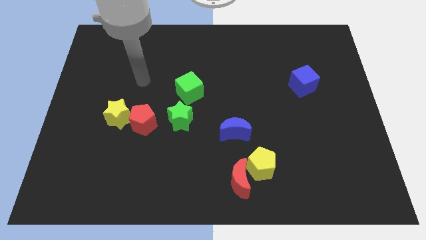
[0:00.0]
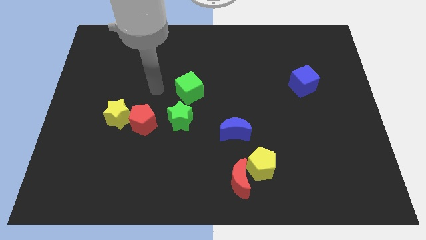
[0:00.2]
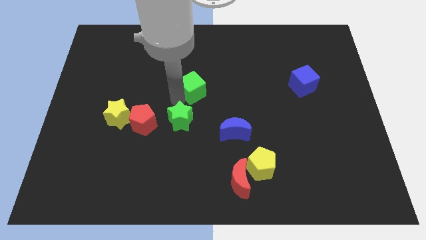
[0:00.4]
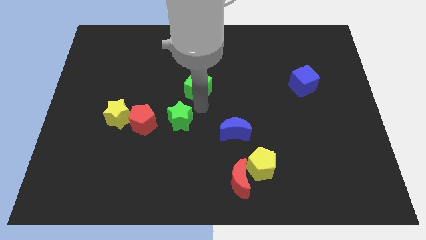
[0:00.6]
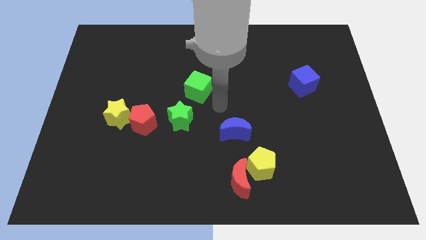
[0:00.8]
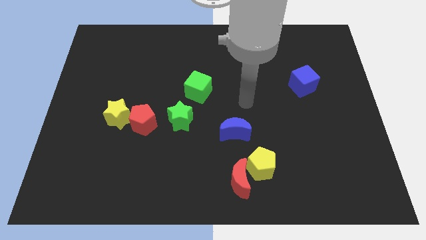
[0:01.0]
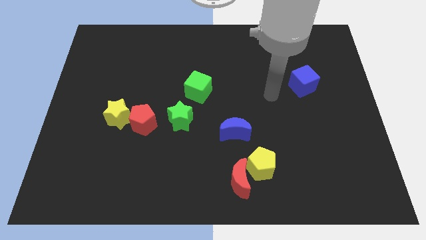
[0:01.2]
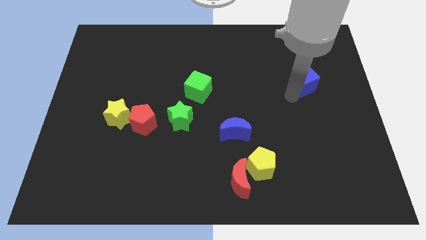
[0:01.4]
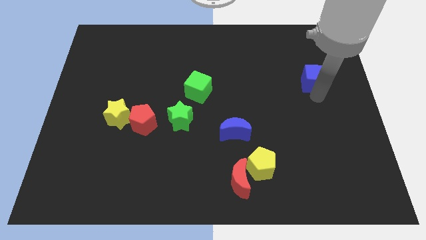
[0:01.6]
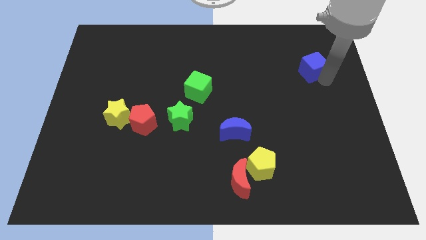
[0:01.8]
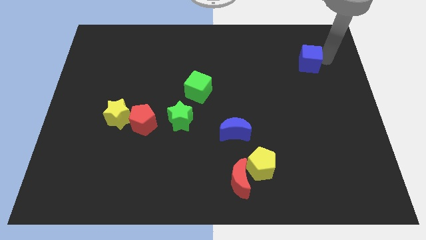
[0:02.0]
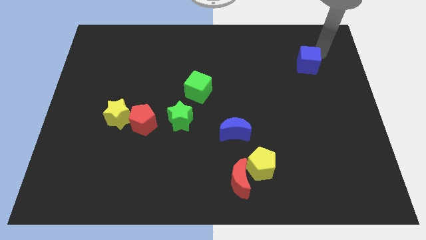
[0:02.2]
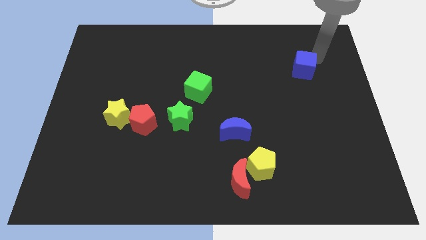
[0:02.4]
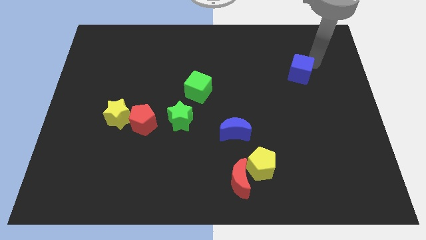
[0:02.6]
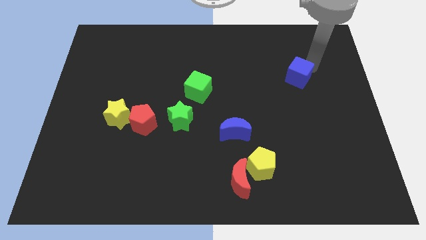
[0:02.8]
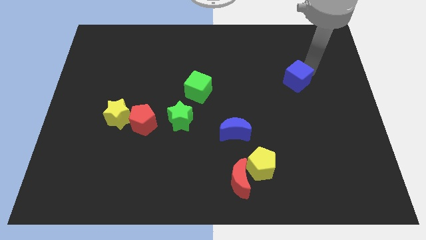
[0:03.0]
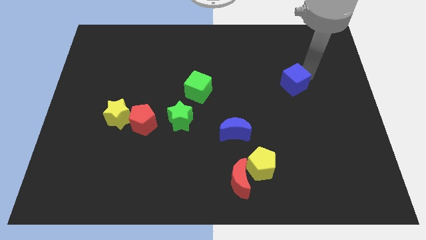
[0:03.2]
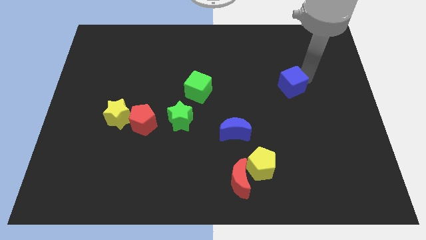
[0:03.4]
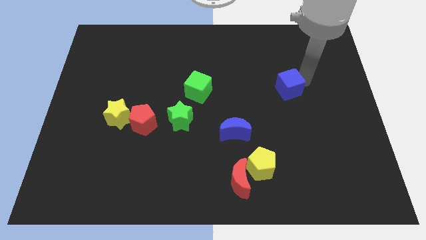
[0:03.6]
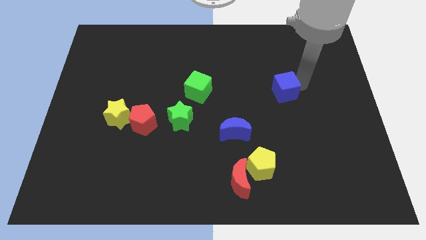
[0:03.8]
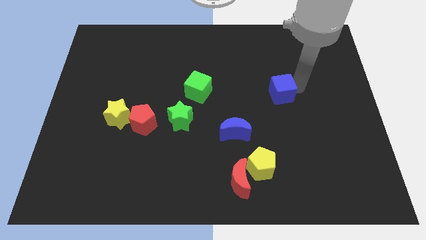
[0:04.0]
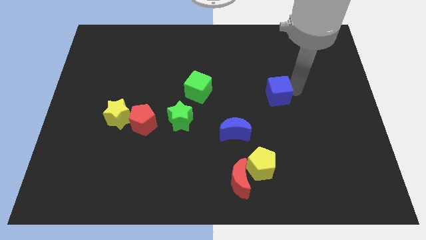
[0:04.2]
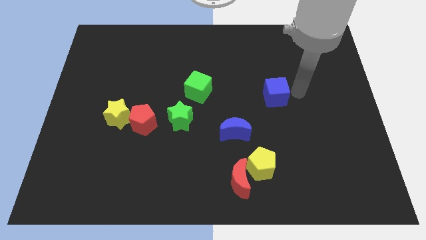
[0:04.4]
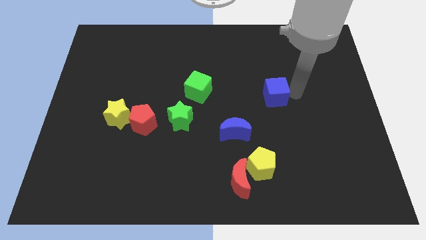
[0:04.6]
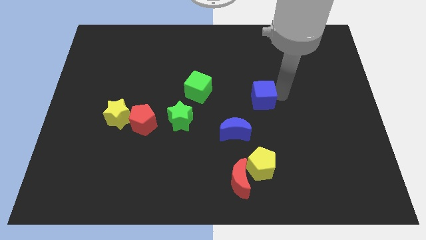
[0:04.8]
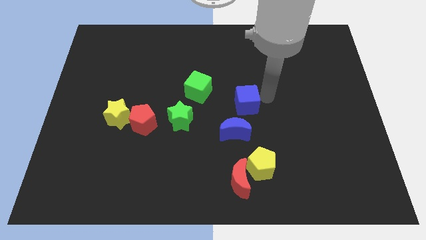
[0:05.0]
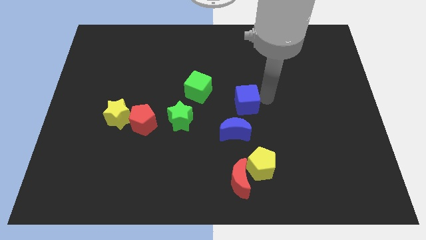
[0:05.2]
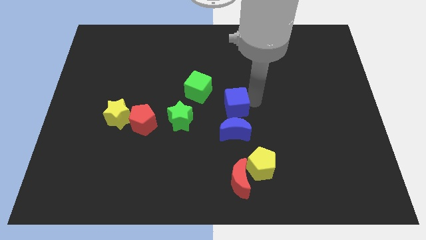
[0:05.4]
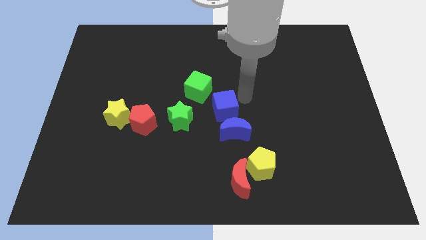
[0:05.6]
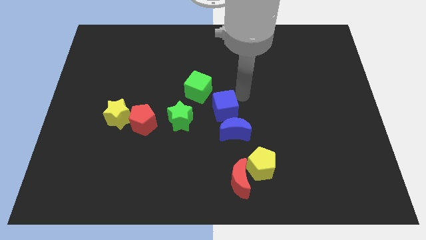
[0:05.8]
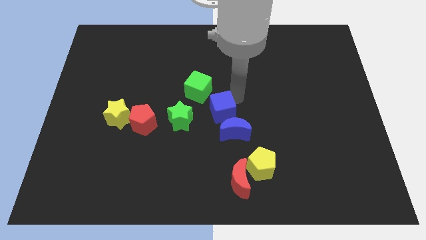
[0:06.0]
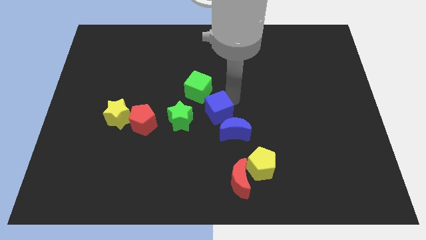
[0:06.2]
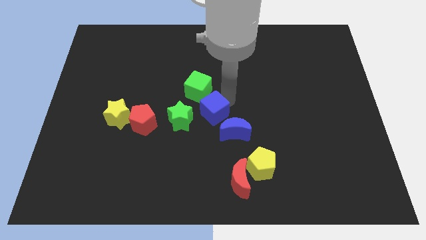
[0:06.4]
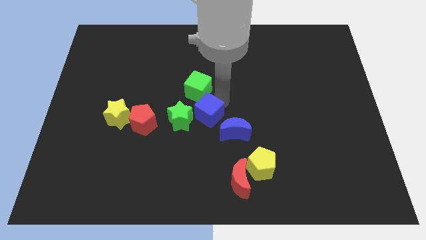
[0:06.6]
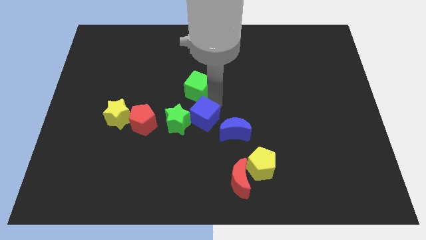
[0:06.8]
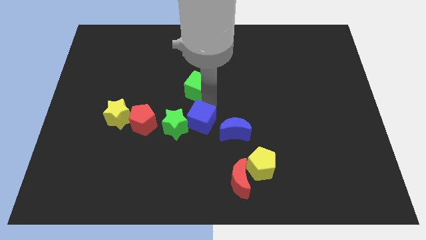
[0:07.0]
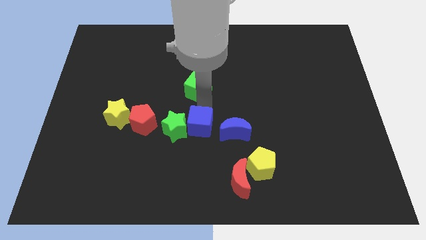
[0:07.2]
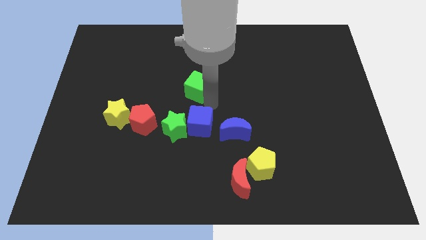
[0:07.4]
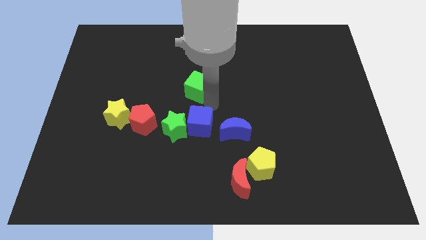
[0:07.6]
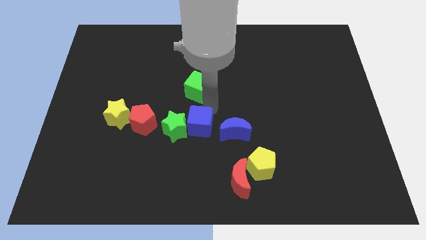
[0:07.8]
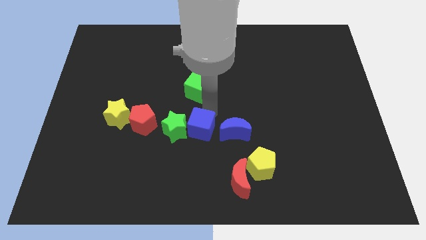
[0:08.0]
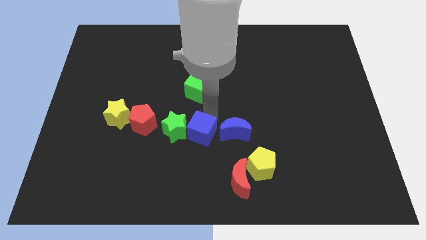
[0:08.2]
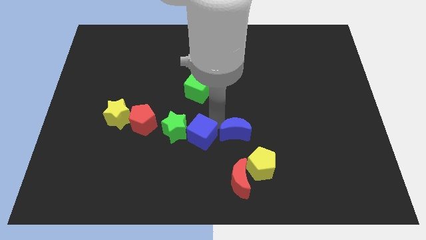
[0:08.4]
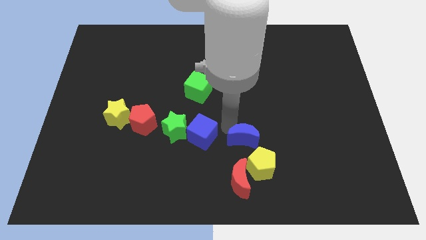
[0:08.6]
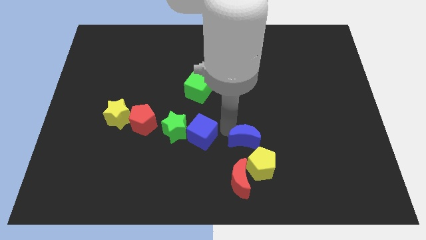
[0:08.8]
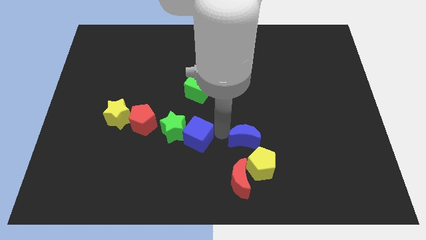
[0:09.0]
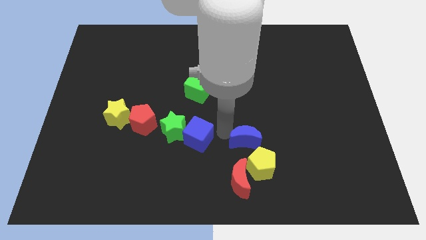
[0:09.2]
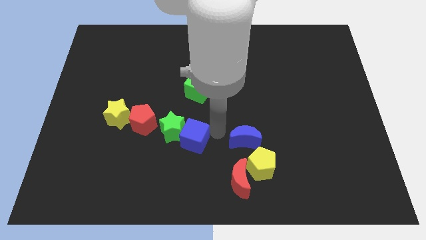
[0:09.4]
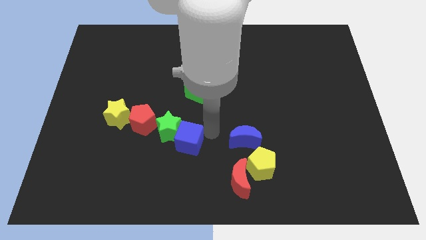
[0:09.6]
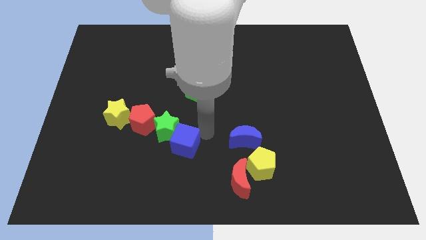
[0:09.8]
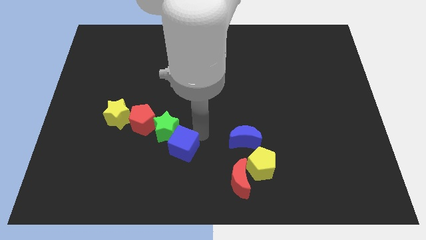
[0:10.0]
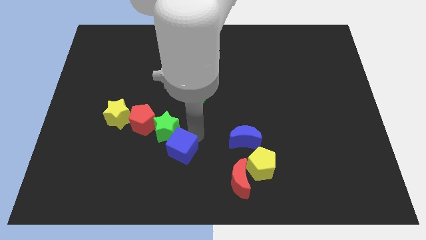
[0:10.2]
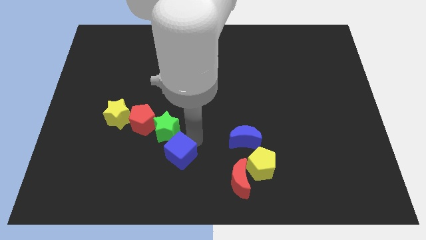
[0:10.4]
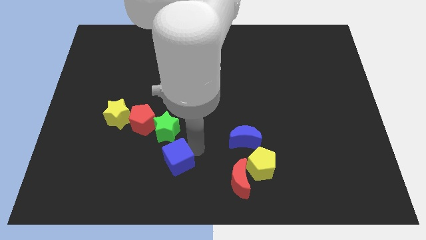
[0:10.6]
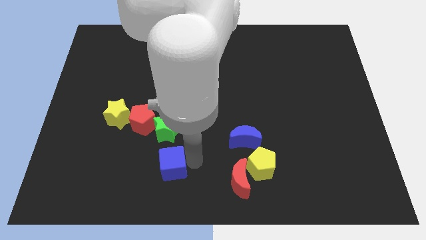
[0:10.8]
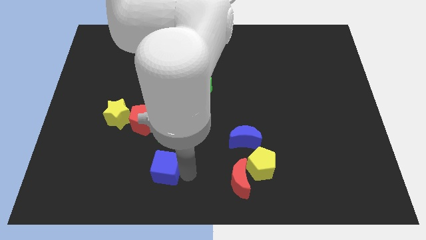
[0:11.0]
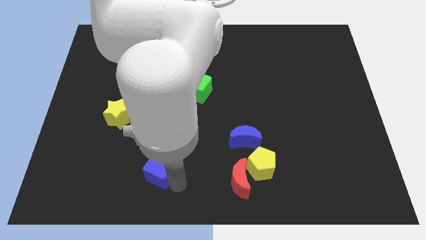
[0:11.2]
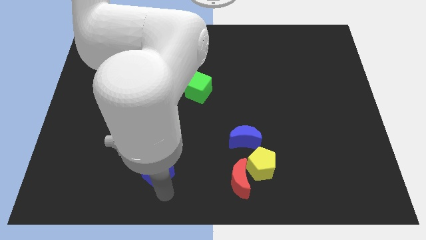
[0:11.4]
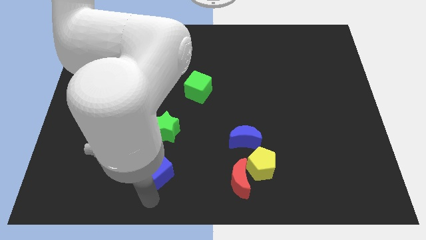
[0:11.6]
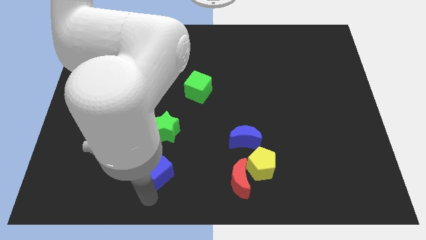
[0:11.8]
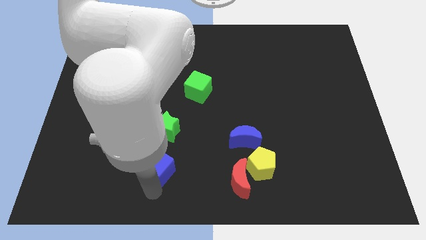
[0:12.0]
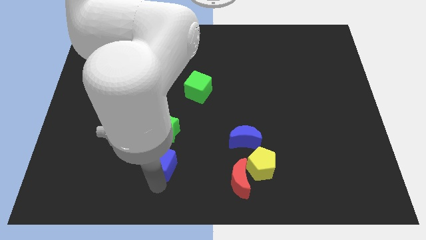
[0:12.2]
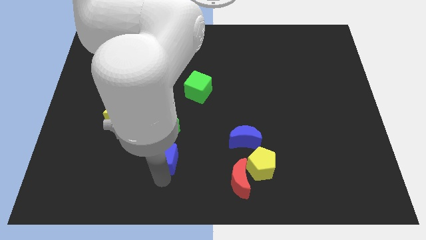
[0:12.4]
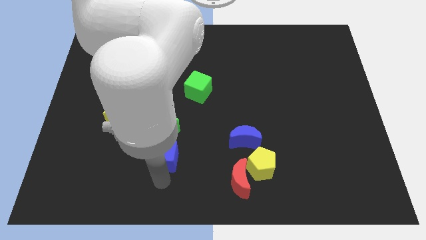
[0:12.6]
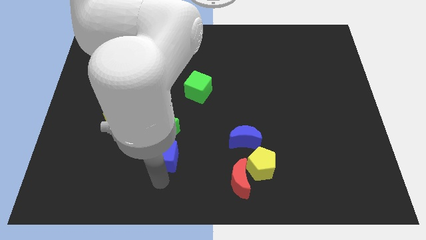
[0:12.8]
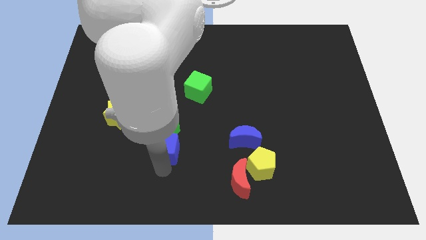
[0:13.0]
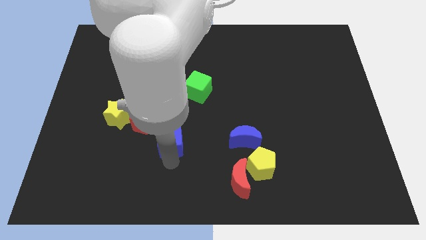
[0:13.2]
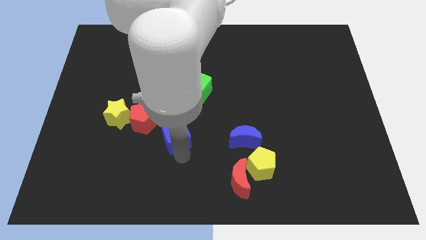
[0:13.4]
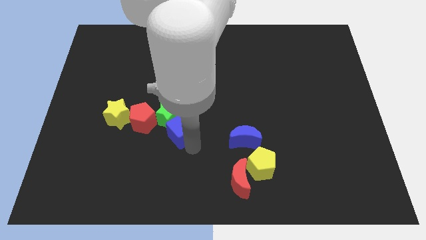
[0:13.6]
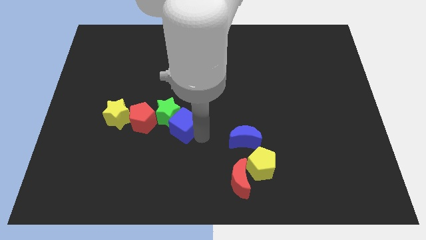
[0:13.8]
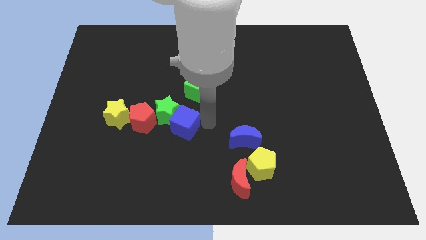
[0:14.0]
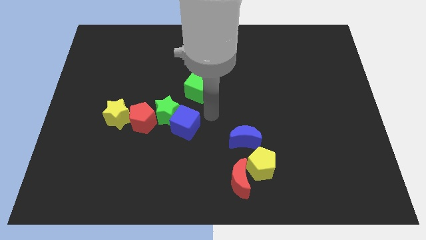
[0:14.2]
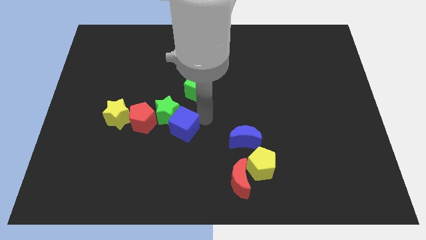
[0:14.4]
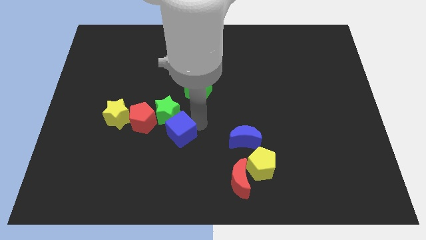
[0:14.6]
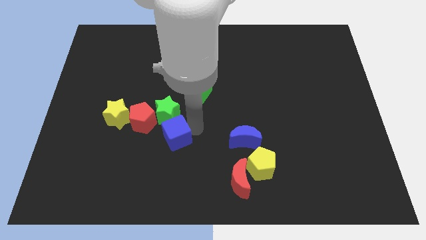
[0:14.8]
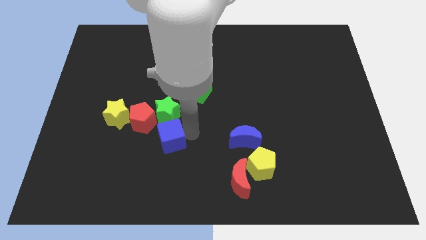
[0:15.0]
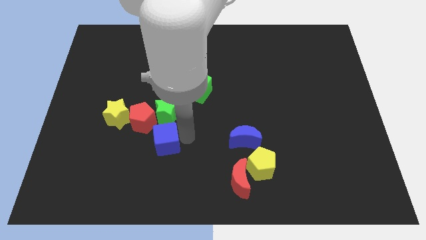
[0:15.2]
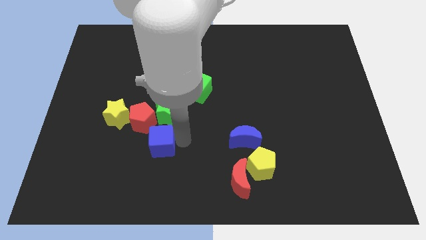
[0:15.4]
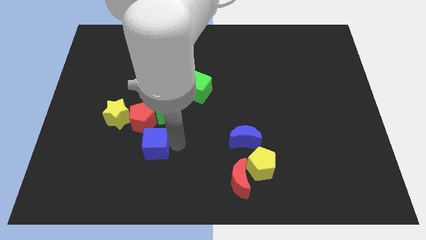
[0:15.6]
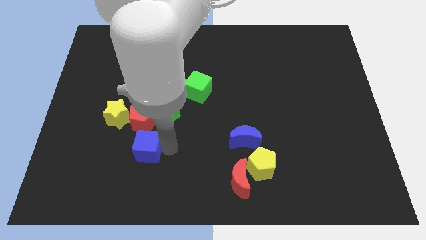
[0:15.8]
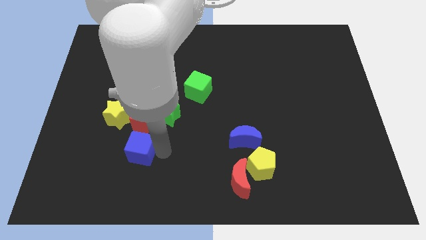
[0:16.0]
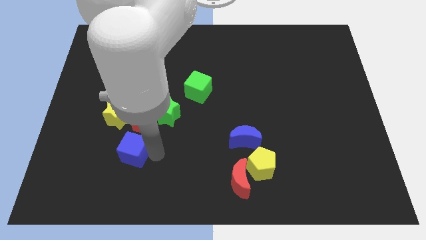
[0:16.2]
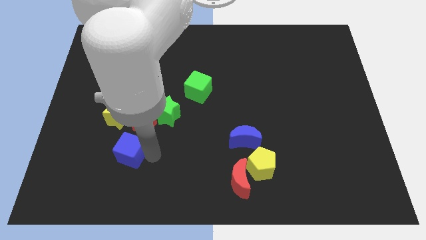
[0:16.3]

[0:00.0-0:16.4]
push the blue cube to the bottom left of the red pentagon
